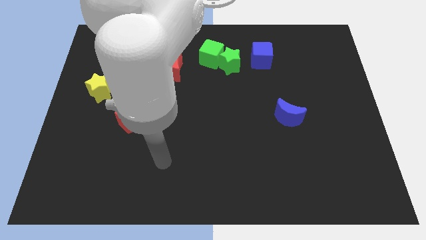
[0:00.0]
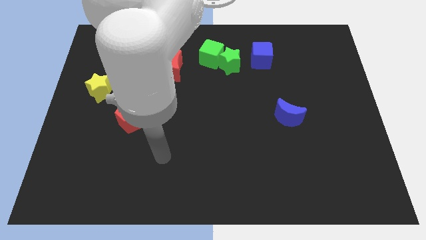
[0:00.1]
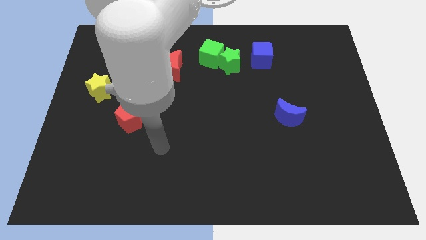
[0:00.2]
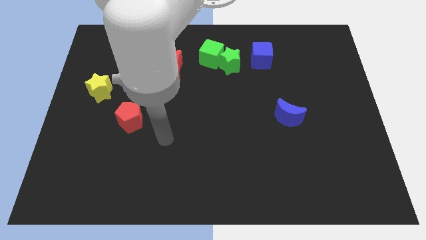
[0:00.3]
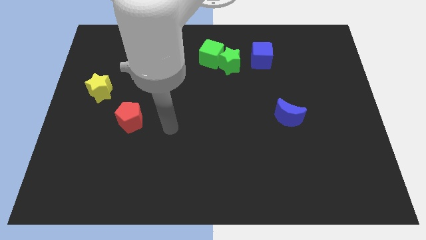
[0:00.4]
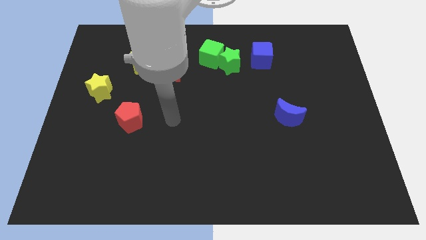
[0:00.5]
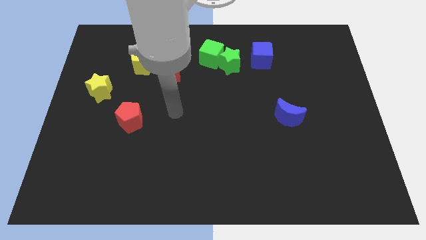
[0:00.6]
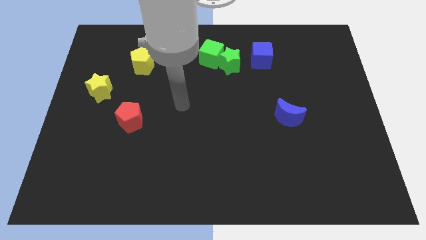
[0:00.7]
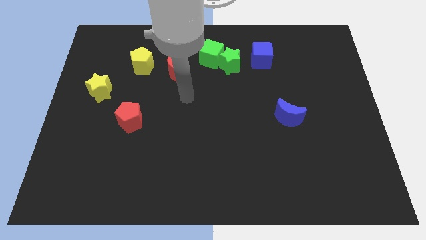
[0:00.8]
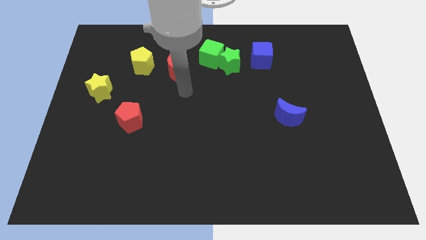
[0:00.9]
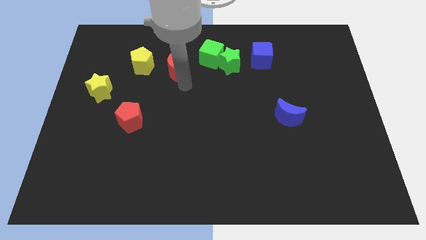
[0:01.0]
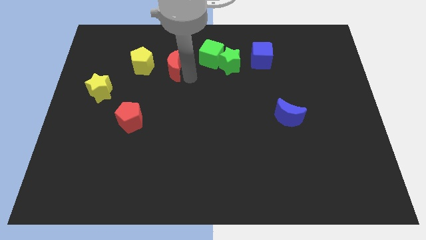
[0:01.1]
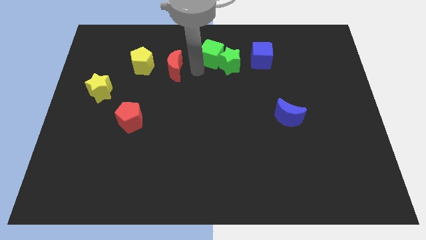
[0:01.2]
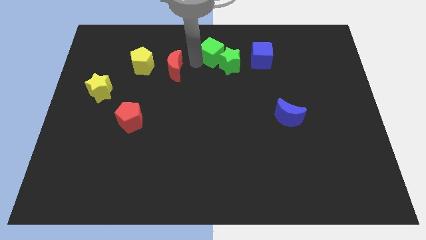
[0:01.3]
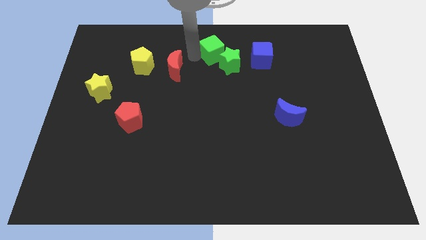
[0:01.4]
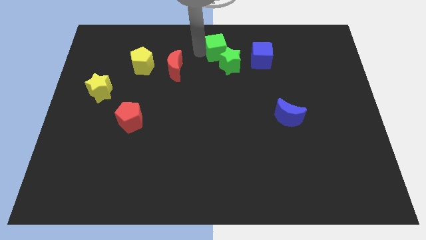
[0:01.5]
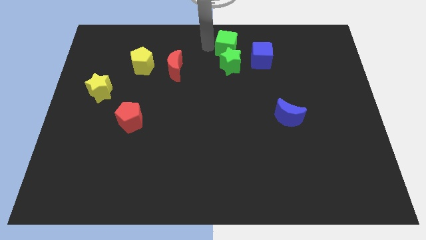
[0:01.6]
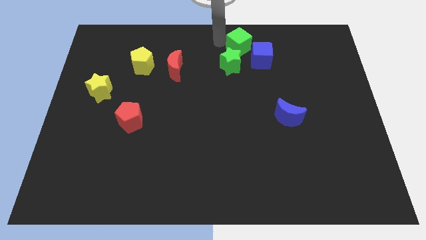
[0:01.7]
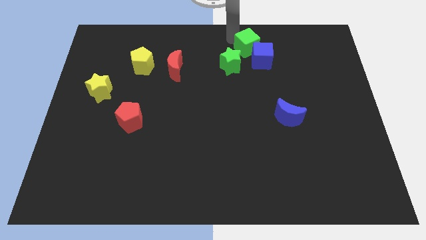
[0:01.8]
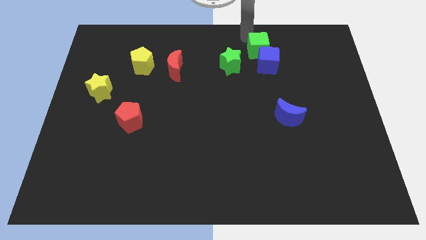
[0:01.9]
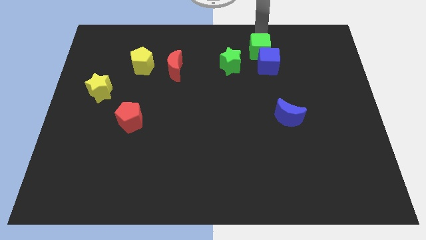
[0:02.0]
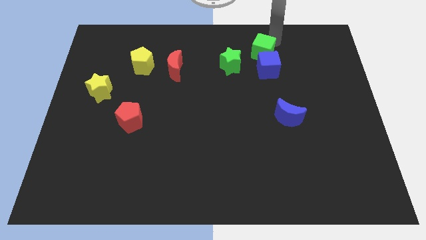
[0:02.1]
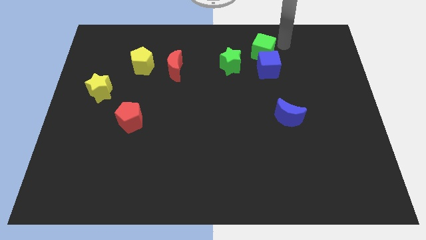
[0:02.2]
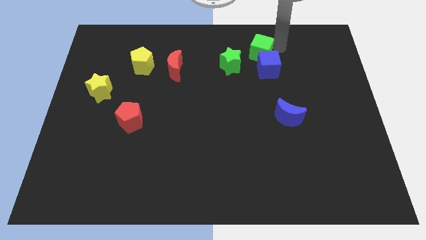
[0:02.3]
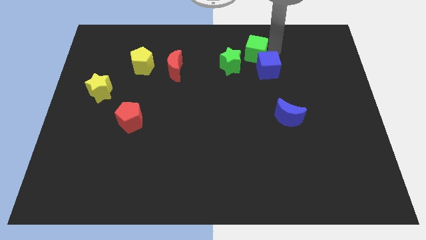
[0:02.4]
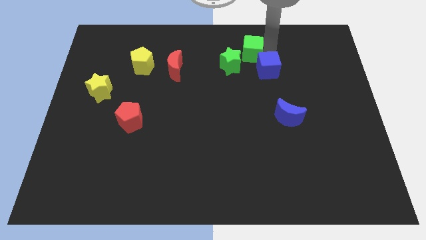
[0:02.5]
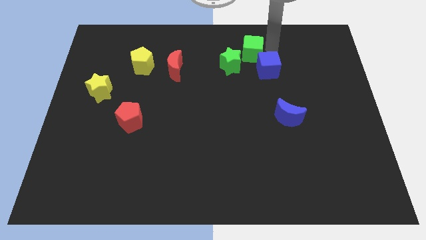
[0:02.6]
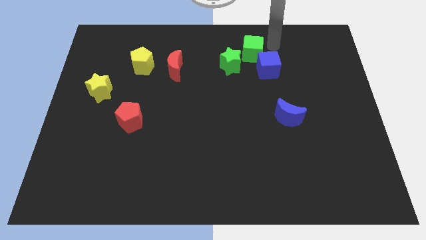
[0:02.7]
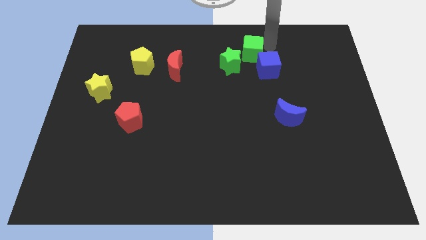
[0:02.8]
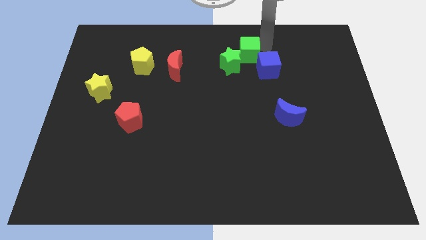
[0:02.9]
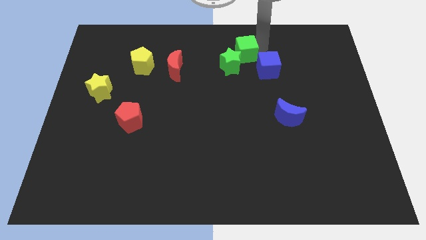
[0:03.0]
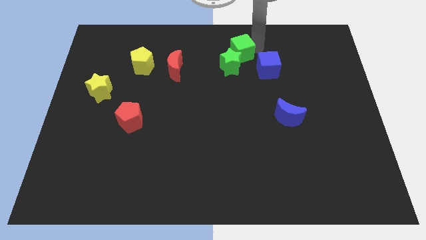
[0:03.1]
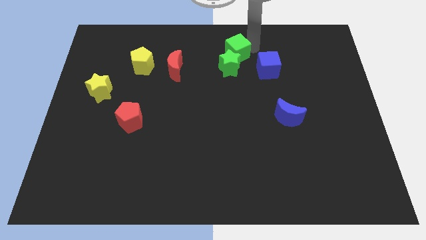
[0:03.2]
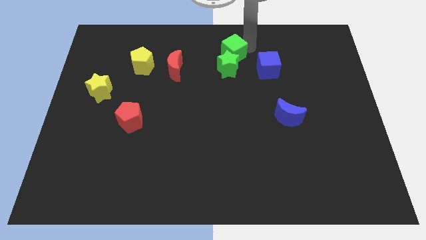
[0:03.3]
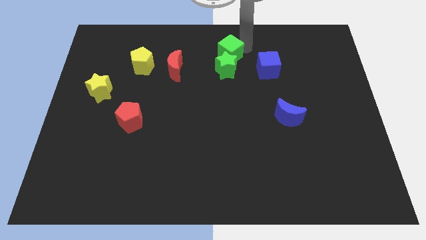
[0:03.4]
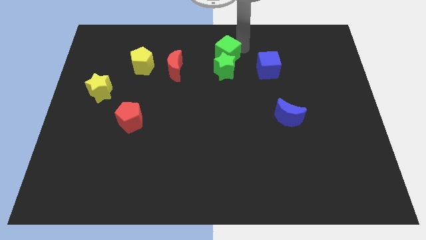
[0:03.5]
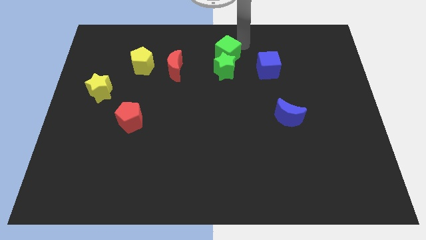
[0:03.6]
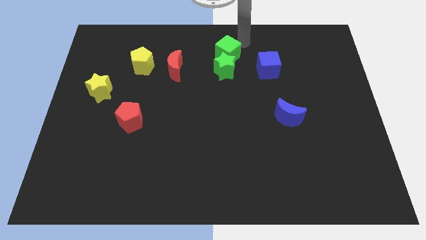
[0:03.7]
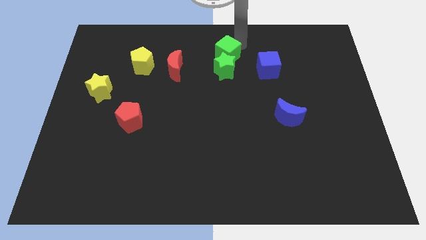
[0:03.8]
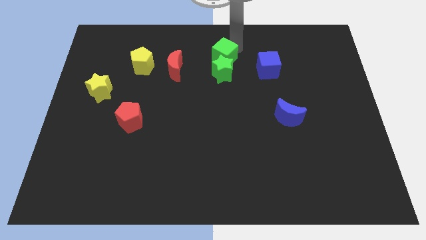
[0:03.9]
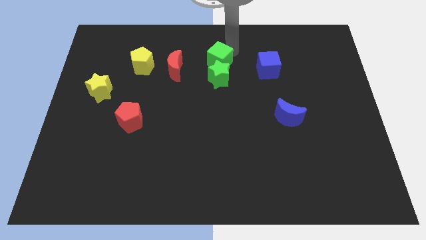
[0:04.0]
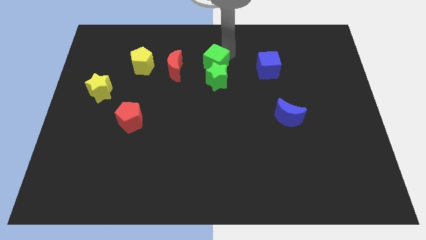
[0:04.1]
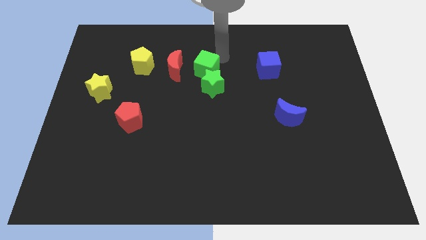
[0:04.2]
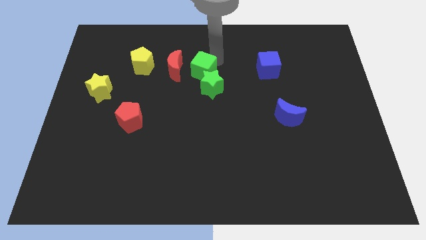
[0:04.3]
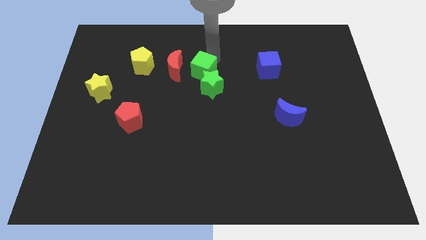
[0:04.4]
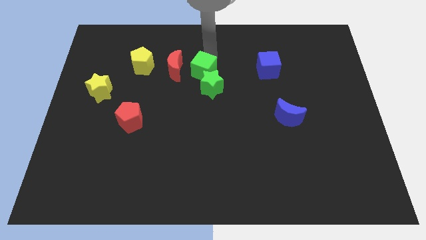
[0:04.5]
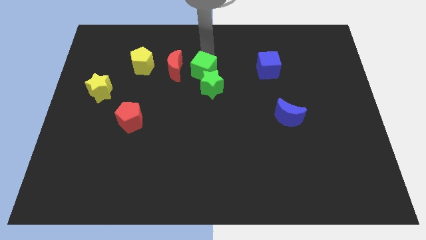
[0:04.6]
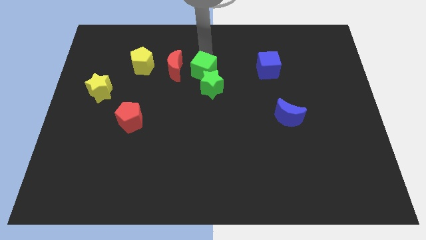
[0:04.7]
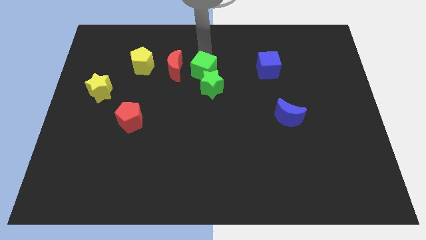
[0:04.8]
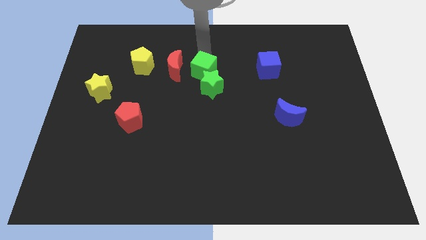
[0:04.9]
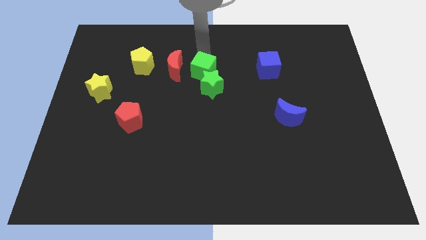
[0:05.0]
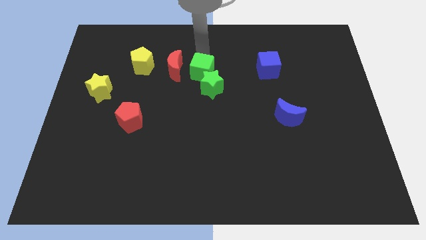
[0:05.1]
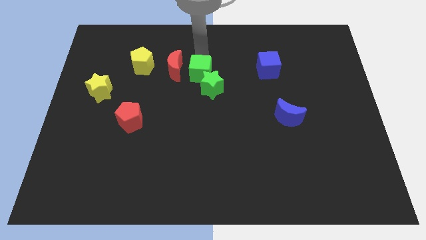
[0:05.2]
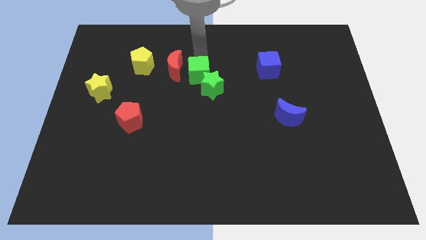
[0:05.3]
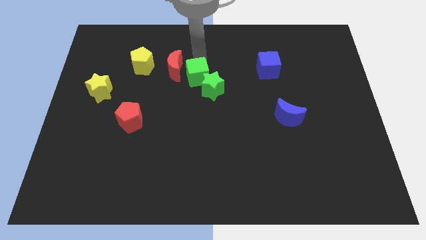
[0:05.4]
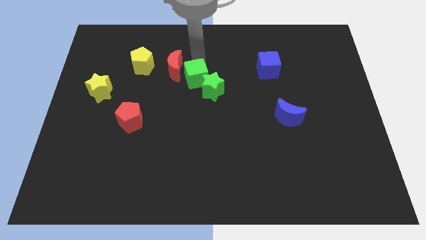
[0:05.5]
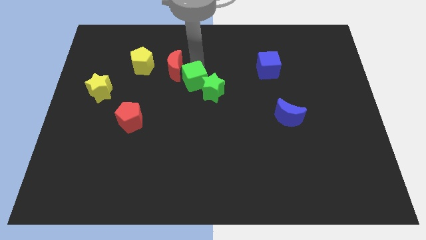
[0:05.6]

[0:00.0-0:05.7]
slightly move the green cube down

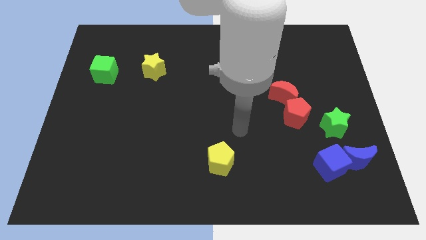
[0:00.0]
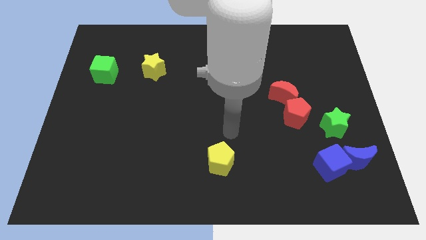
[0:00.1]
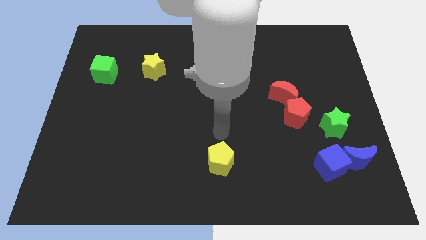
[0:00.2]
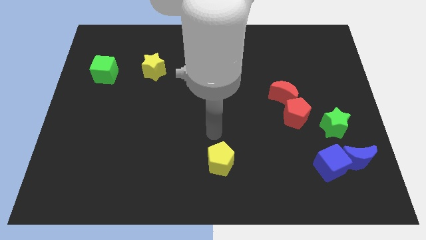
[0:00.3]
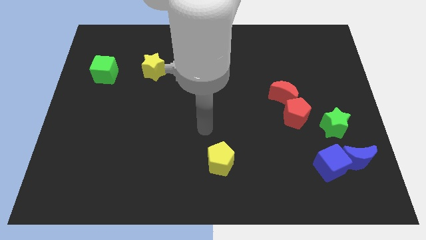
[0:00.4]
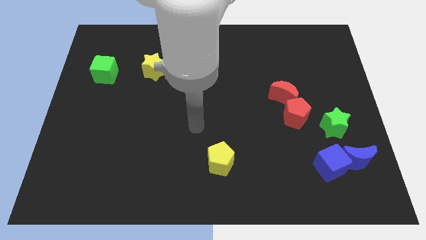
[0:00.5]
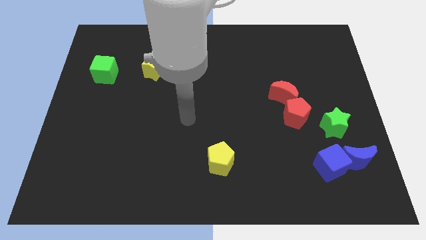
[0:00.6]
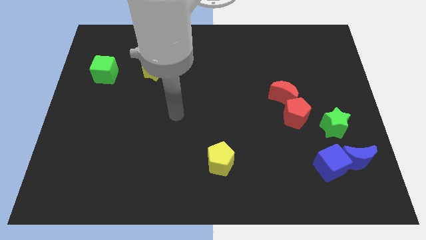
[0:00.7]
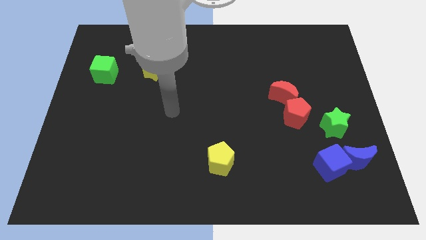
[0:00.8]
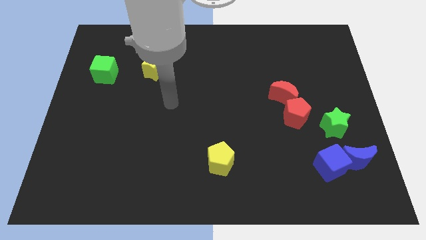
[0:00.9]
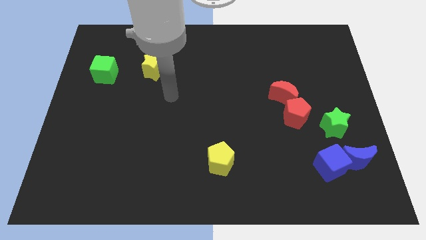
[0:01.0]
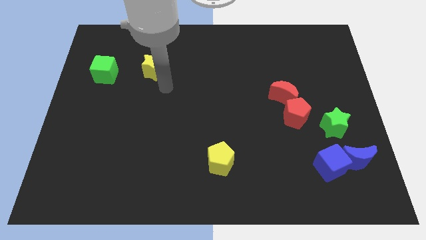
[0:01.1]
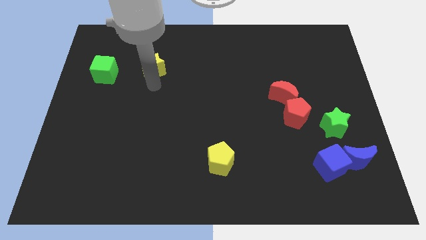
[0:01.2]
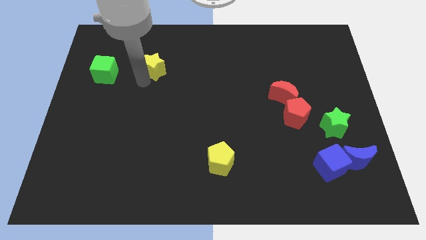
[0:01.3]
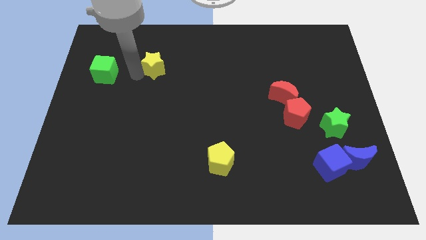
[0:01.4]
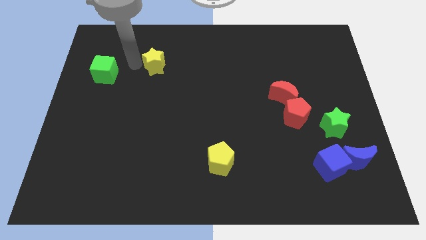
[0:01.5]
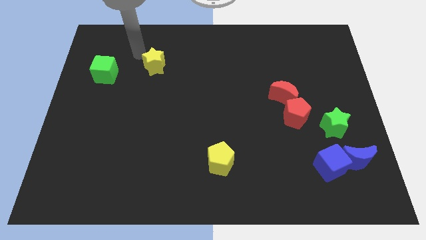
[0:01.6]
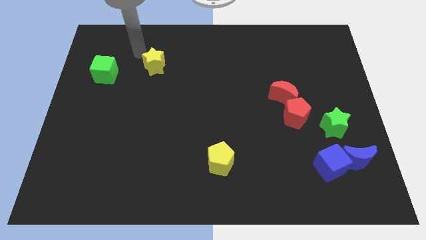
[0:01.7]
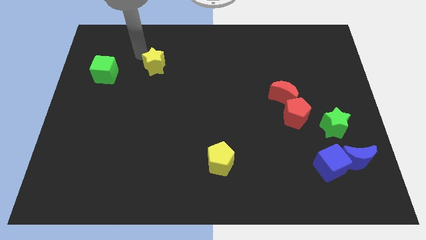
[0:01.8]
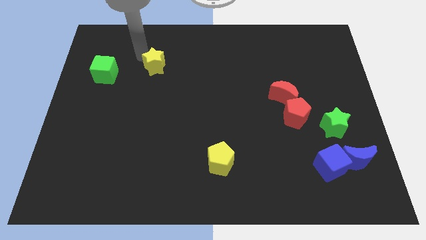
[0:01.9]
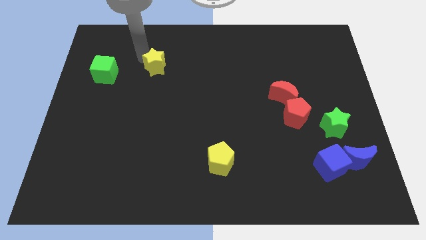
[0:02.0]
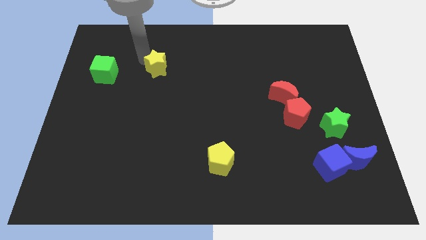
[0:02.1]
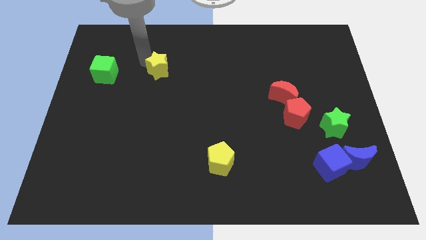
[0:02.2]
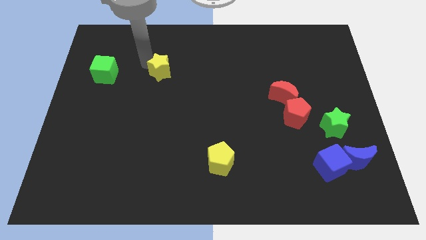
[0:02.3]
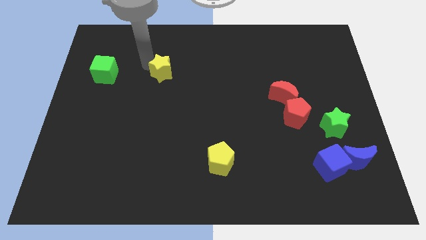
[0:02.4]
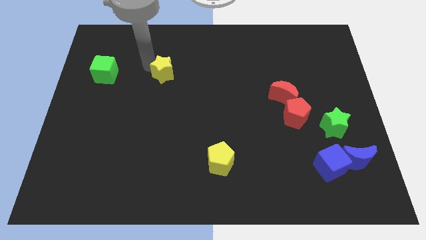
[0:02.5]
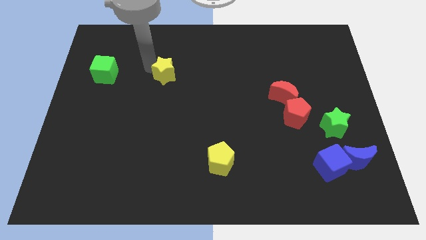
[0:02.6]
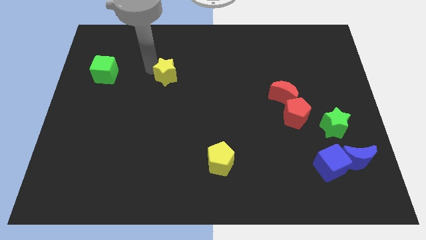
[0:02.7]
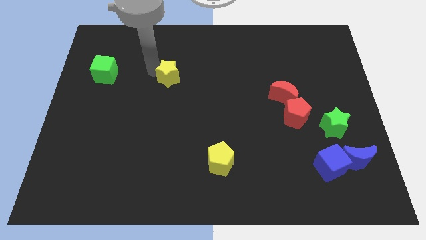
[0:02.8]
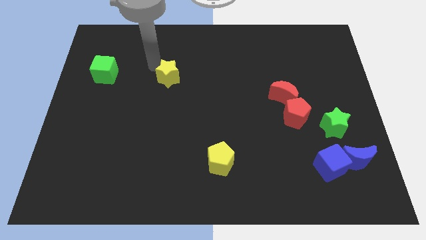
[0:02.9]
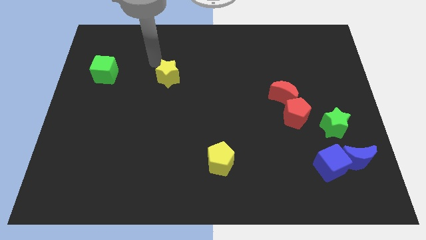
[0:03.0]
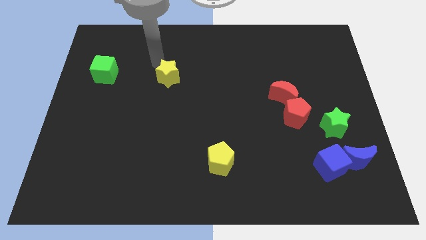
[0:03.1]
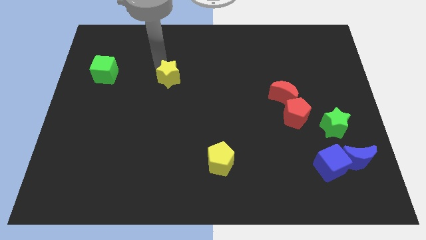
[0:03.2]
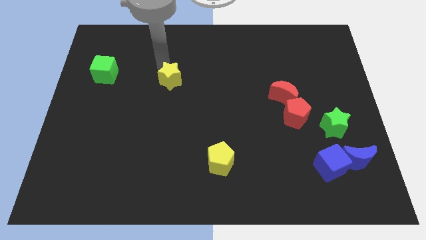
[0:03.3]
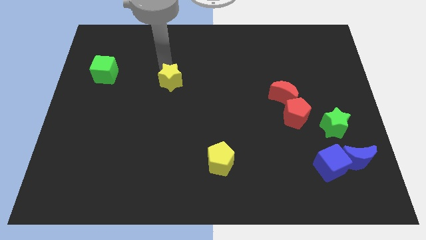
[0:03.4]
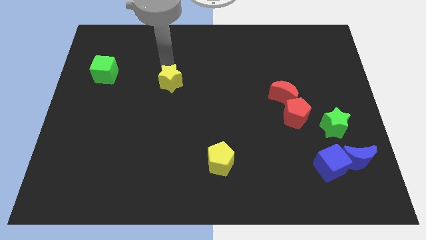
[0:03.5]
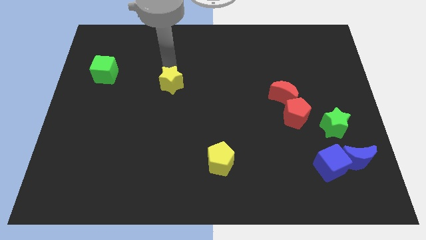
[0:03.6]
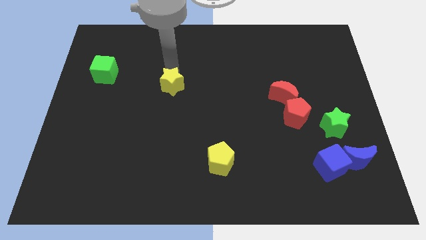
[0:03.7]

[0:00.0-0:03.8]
move the yellow star diagonally downwards and to the right a bit
